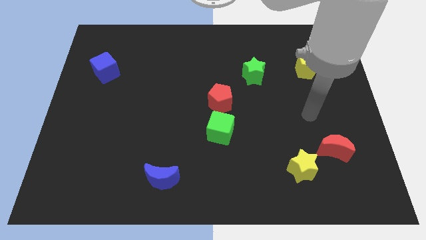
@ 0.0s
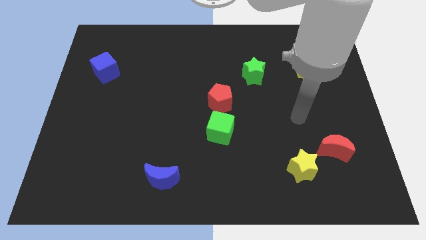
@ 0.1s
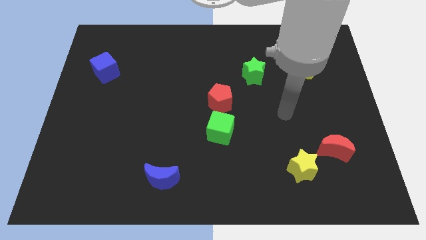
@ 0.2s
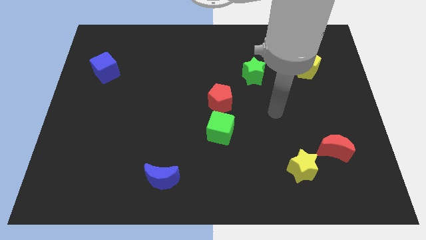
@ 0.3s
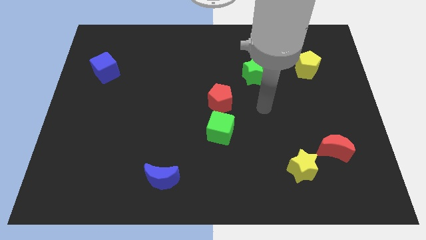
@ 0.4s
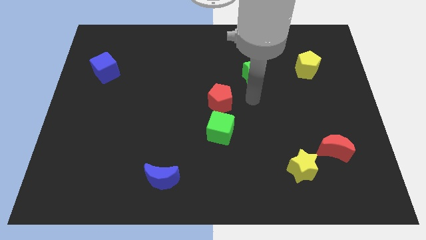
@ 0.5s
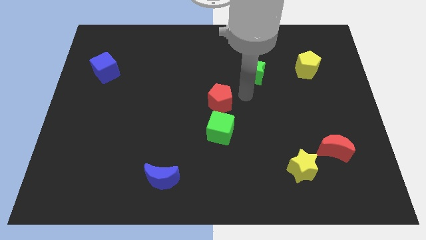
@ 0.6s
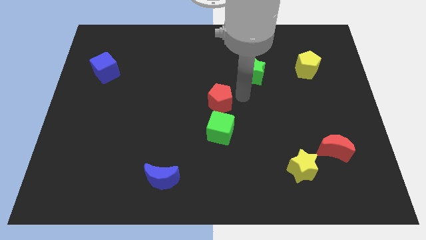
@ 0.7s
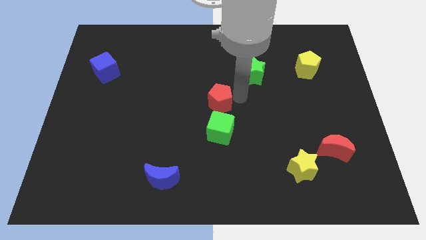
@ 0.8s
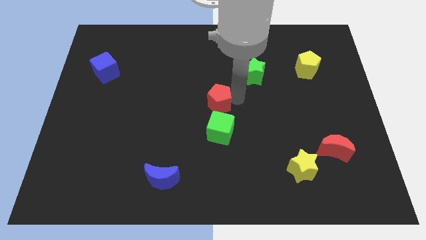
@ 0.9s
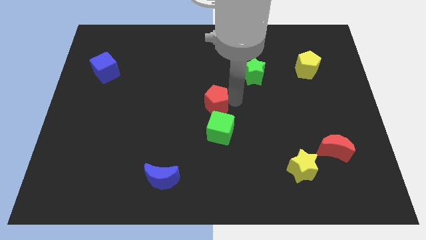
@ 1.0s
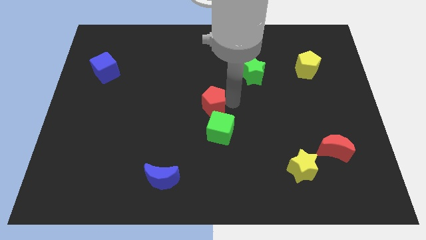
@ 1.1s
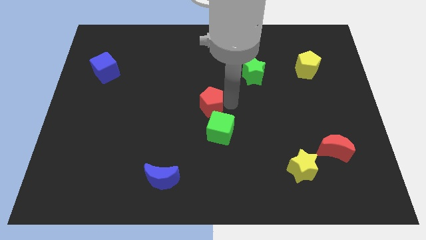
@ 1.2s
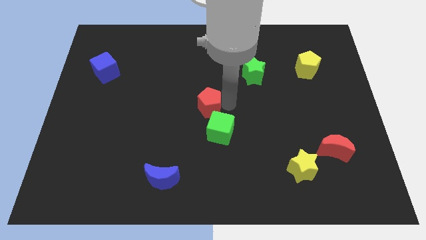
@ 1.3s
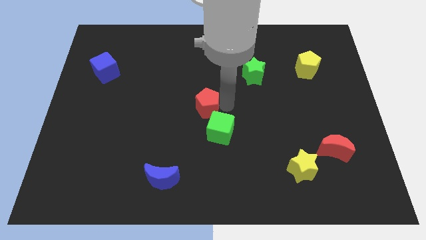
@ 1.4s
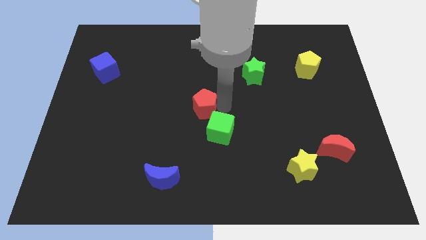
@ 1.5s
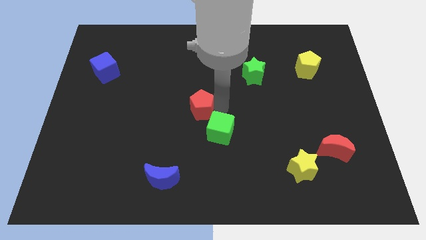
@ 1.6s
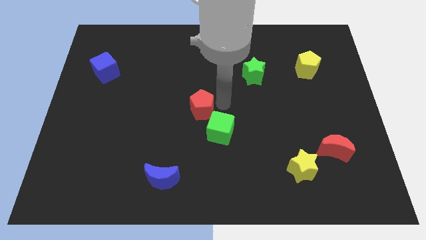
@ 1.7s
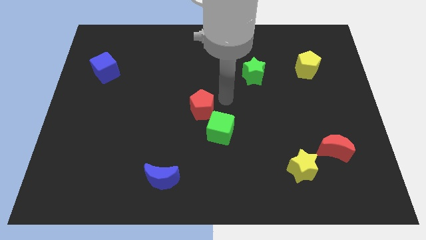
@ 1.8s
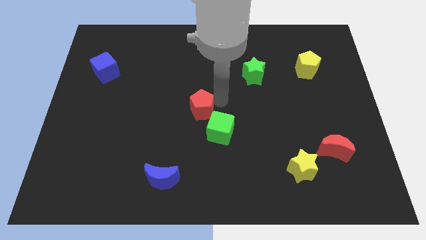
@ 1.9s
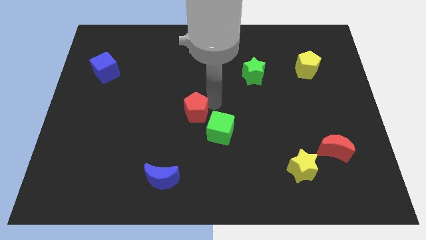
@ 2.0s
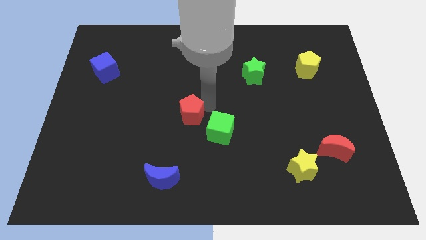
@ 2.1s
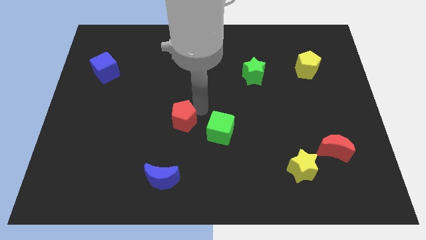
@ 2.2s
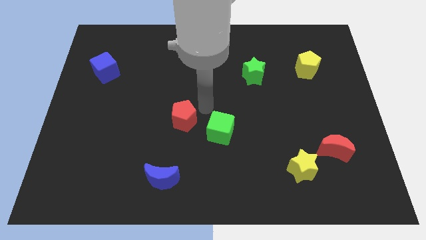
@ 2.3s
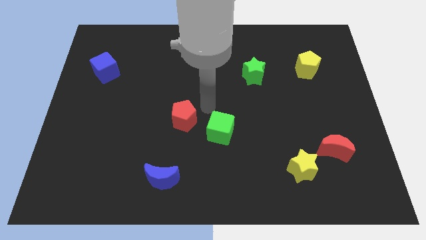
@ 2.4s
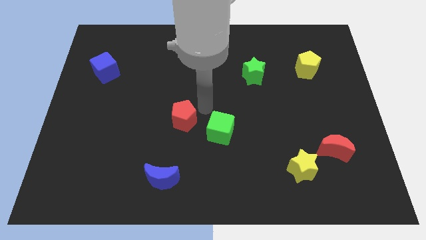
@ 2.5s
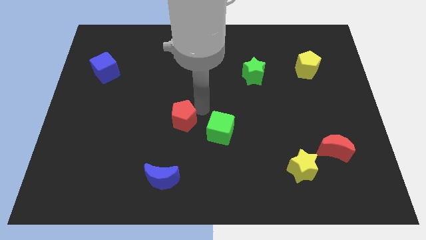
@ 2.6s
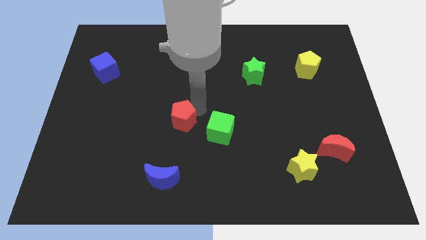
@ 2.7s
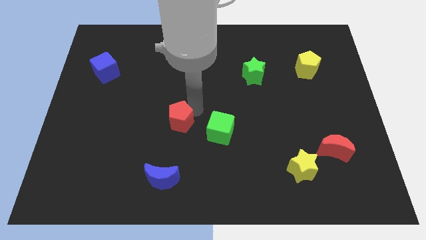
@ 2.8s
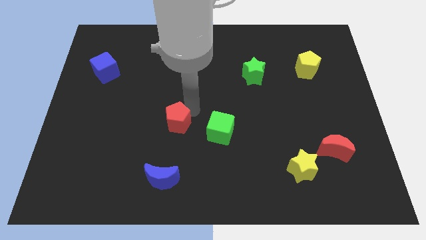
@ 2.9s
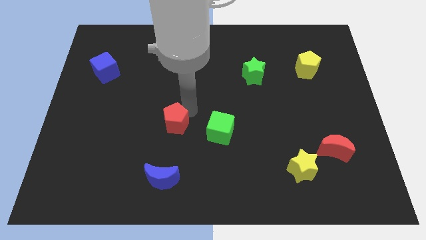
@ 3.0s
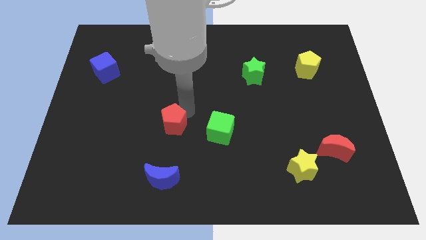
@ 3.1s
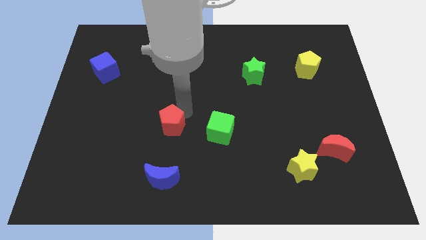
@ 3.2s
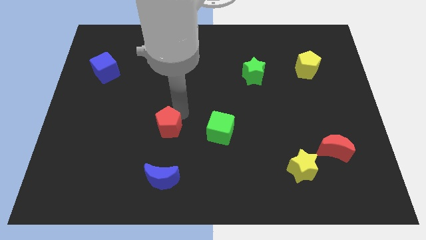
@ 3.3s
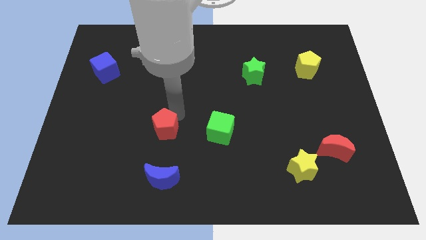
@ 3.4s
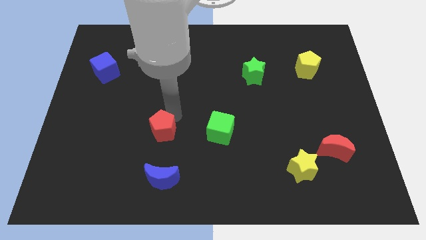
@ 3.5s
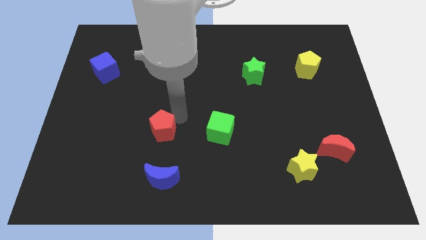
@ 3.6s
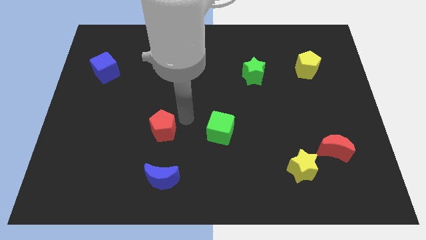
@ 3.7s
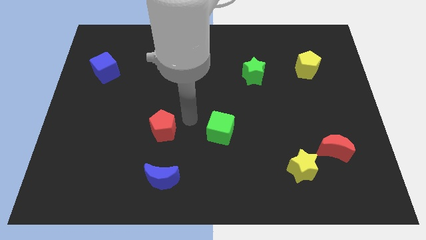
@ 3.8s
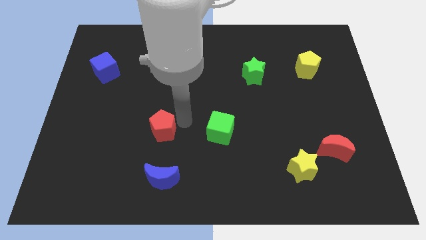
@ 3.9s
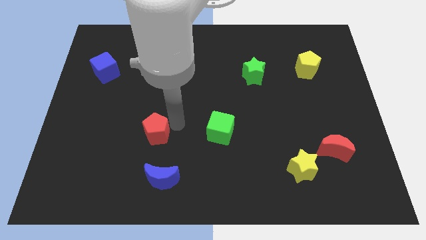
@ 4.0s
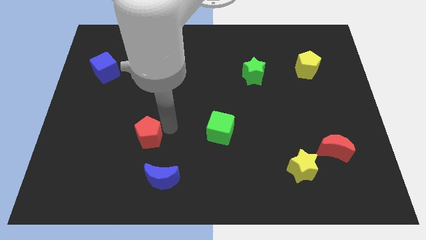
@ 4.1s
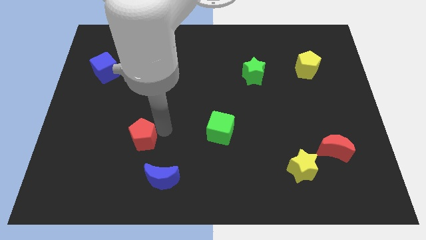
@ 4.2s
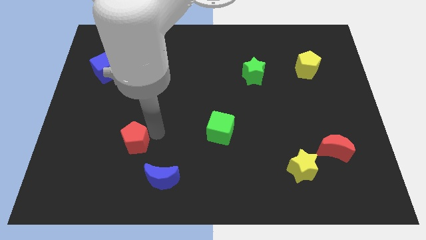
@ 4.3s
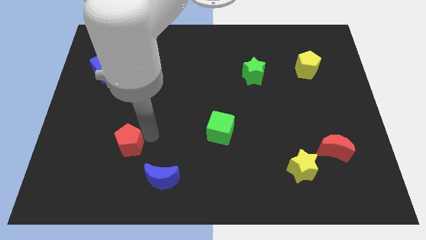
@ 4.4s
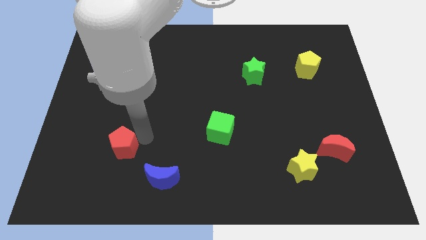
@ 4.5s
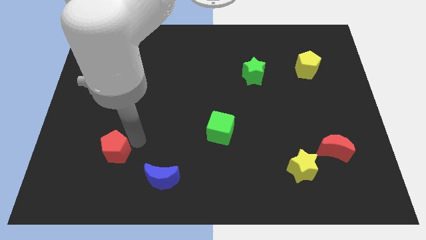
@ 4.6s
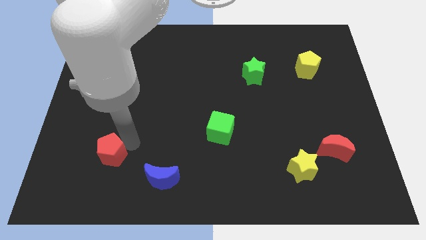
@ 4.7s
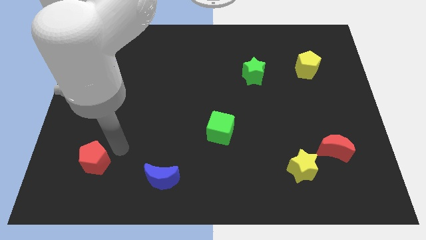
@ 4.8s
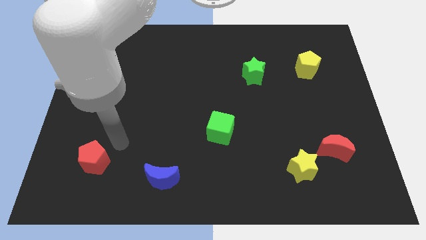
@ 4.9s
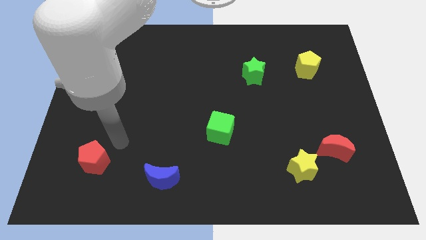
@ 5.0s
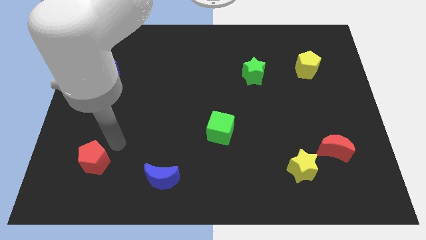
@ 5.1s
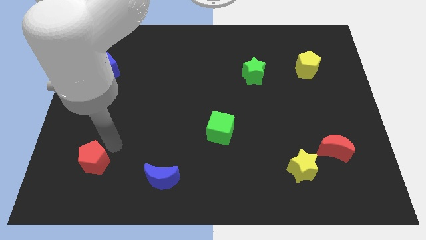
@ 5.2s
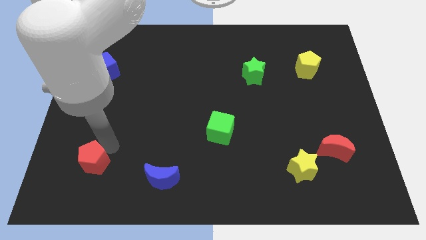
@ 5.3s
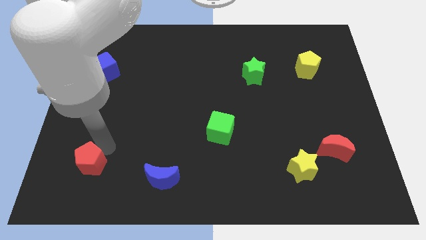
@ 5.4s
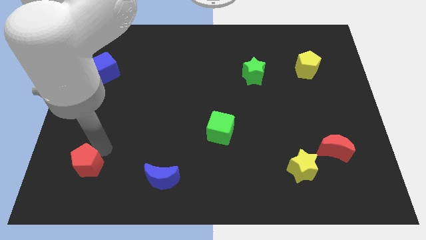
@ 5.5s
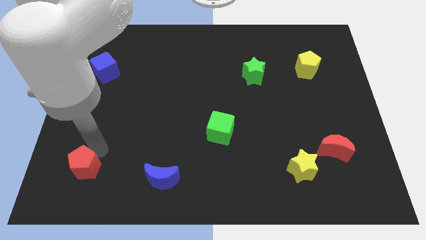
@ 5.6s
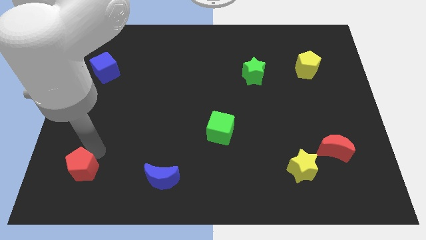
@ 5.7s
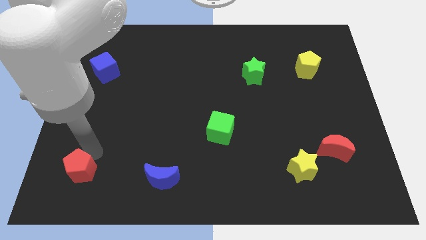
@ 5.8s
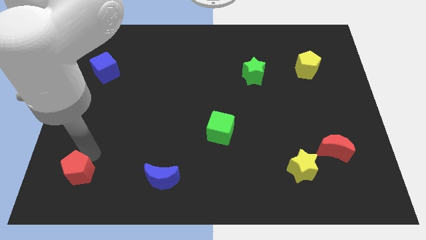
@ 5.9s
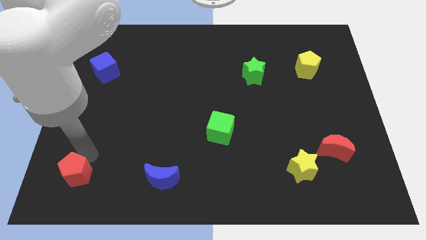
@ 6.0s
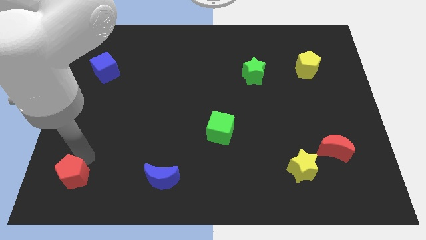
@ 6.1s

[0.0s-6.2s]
push the red pentagon to the lower left corner

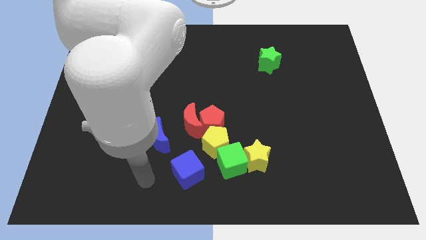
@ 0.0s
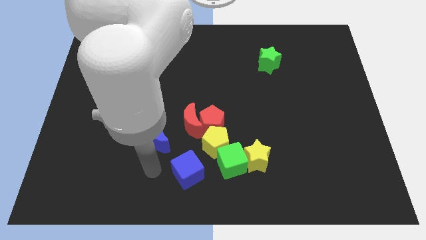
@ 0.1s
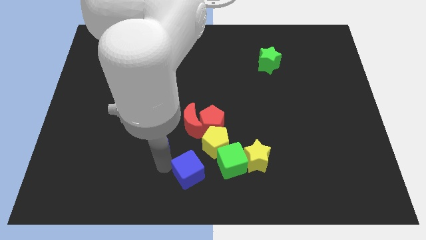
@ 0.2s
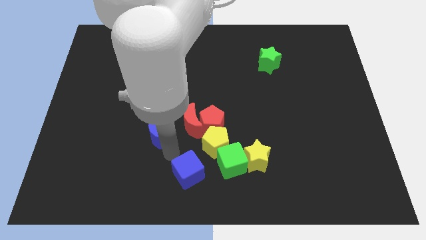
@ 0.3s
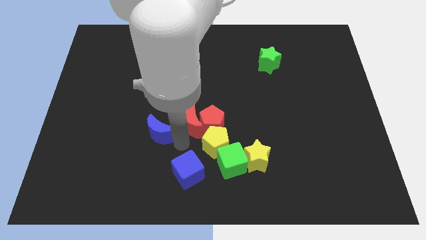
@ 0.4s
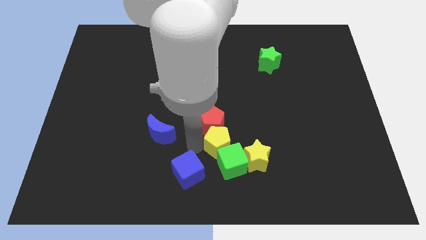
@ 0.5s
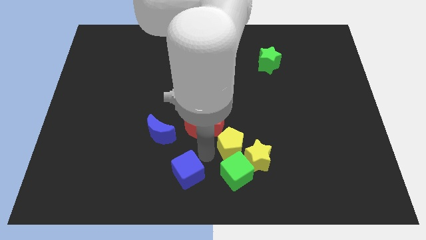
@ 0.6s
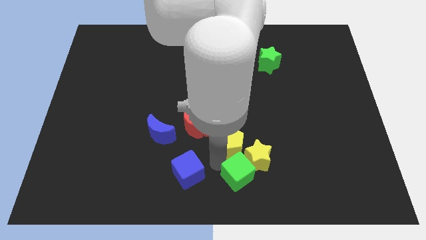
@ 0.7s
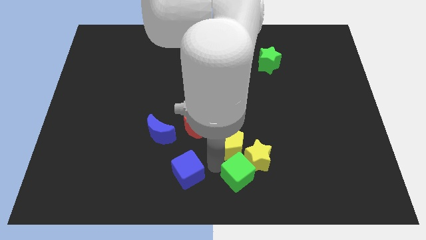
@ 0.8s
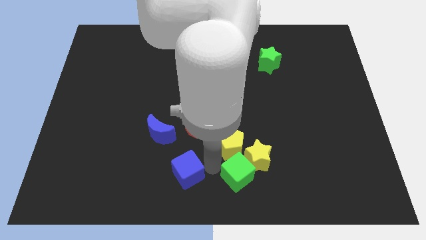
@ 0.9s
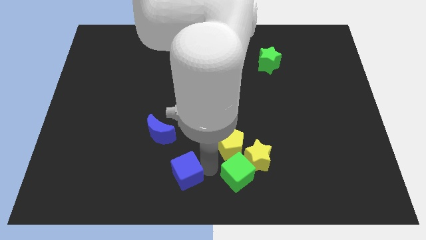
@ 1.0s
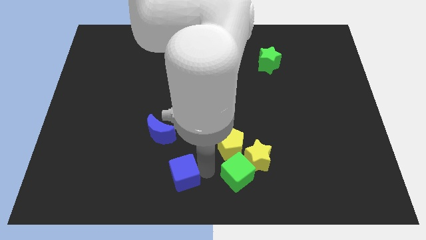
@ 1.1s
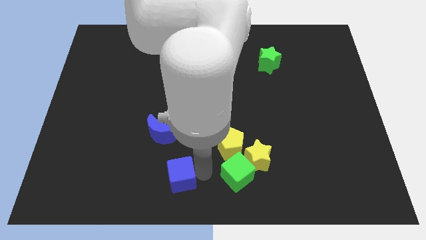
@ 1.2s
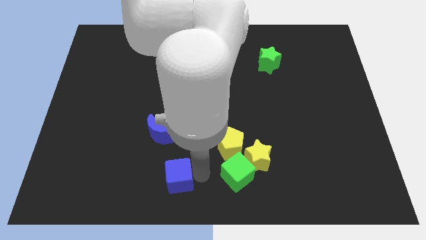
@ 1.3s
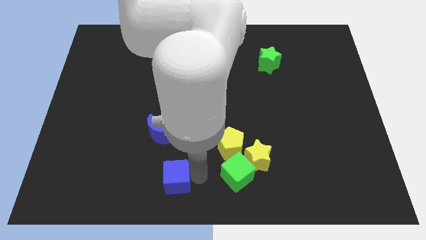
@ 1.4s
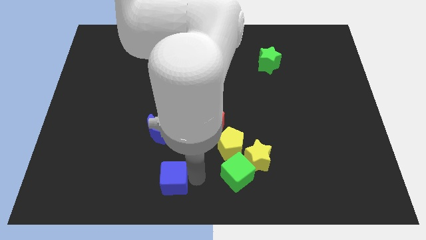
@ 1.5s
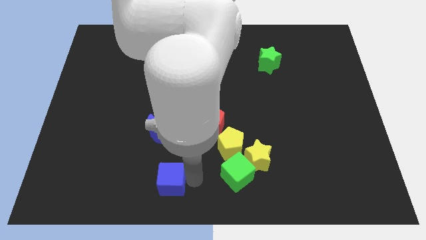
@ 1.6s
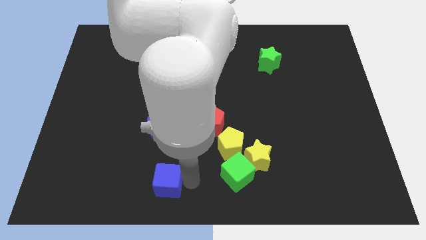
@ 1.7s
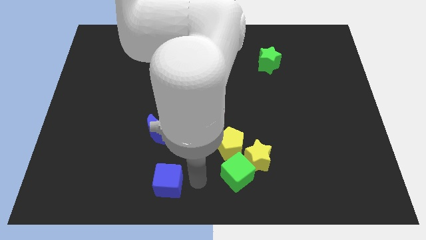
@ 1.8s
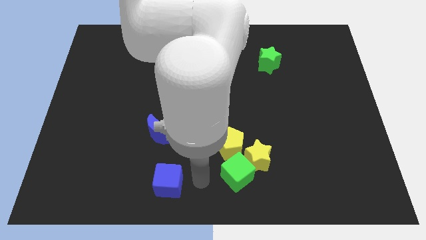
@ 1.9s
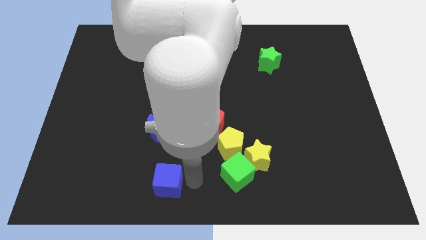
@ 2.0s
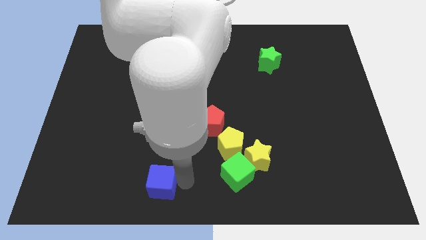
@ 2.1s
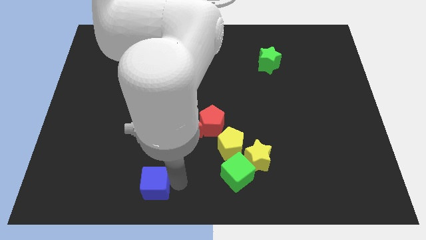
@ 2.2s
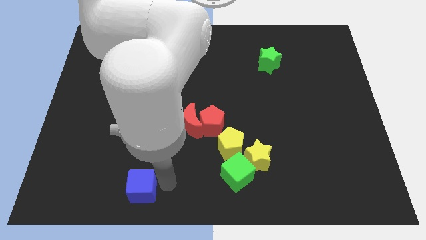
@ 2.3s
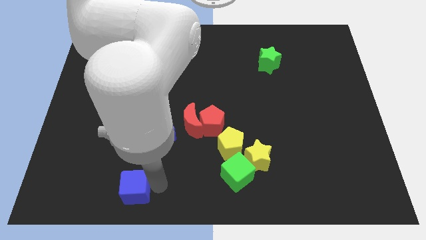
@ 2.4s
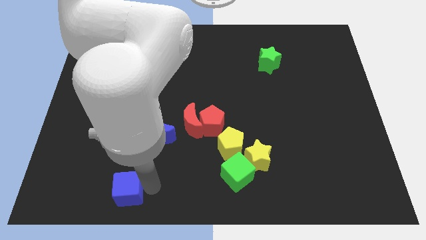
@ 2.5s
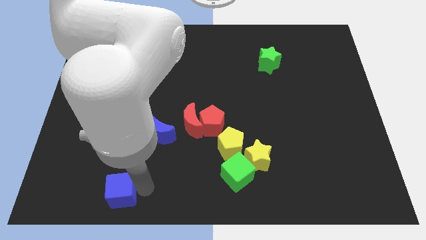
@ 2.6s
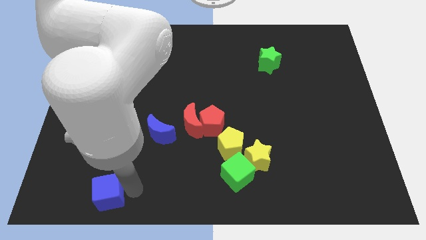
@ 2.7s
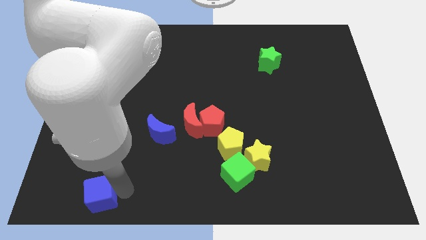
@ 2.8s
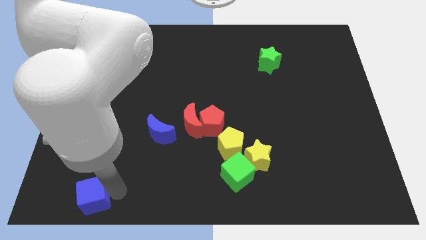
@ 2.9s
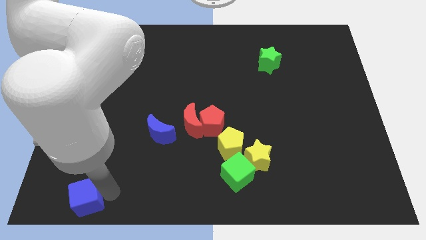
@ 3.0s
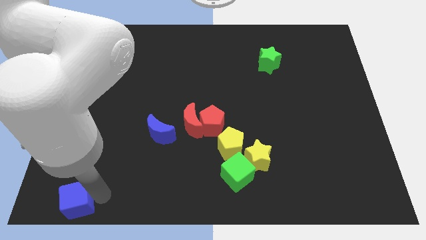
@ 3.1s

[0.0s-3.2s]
move the blue cube to the bottom left corner
